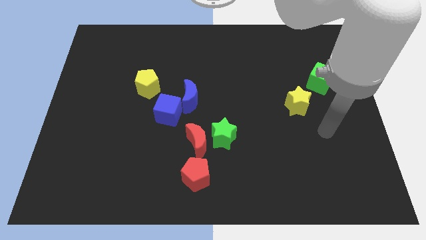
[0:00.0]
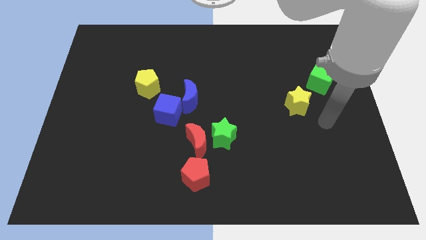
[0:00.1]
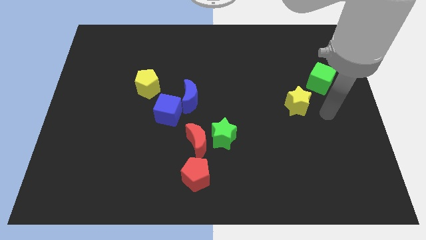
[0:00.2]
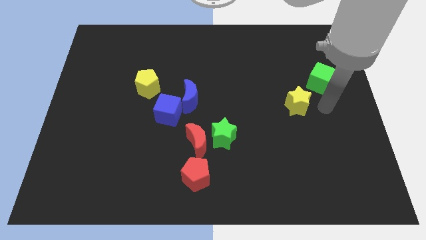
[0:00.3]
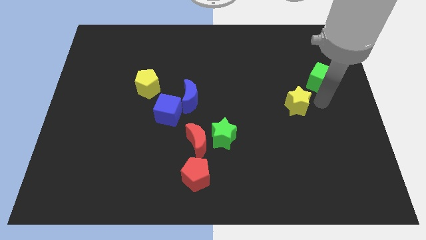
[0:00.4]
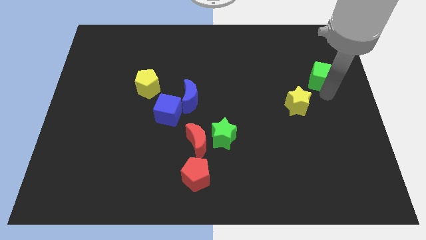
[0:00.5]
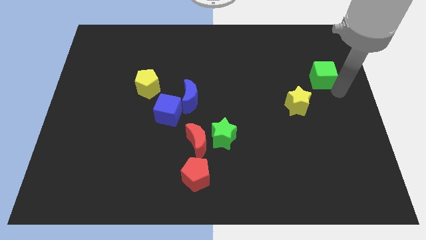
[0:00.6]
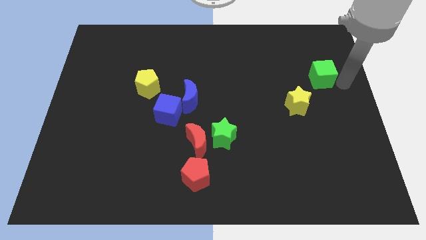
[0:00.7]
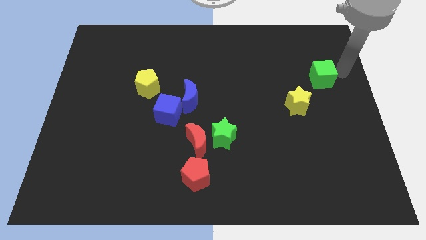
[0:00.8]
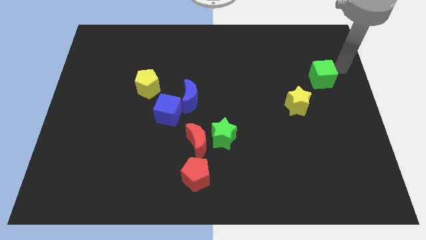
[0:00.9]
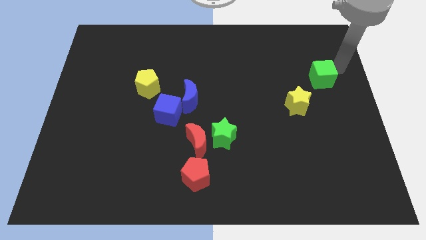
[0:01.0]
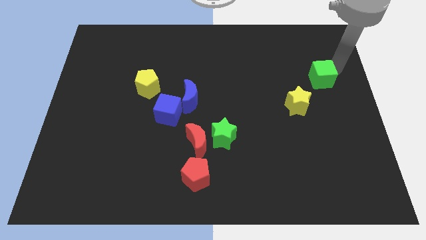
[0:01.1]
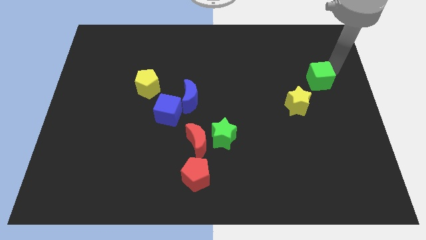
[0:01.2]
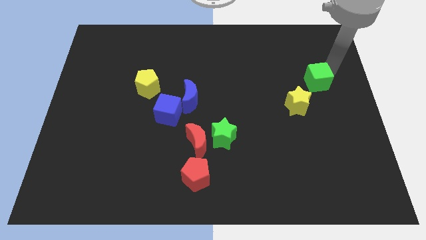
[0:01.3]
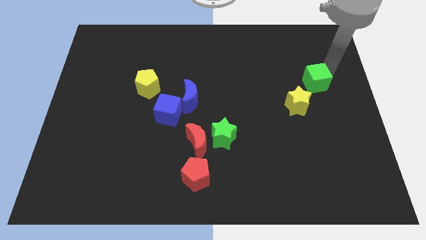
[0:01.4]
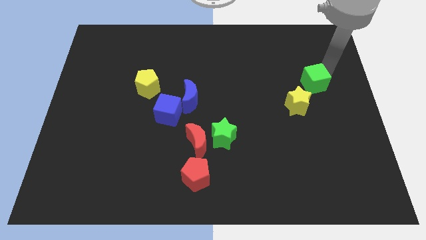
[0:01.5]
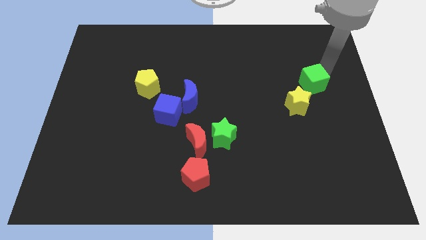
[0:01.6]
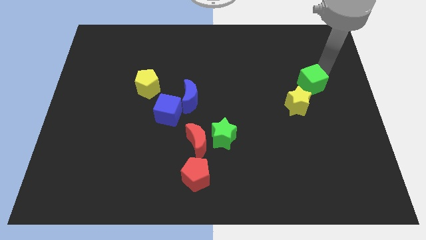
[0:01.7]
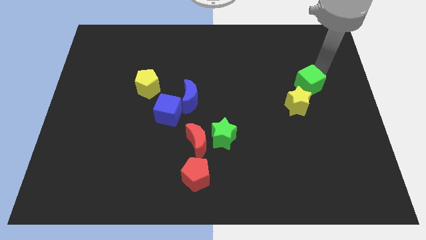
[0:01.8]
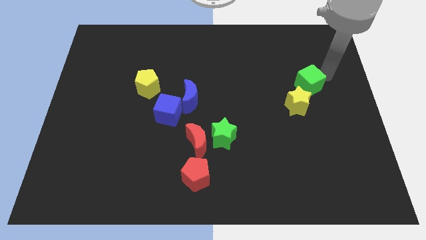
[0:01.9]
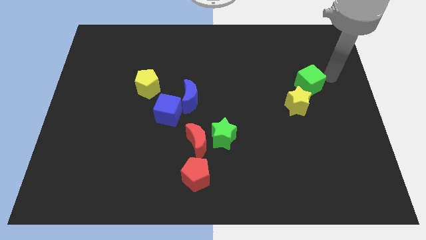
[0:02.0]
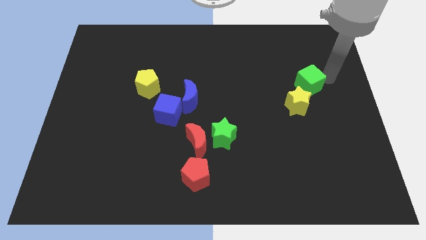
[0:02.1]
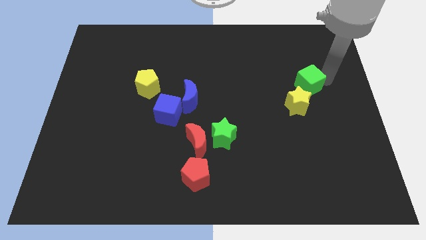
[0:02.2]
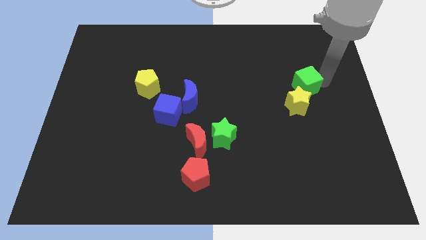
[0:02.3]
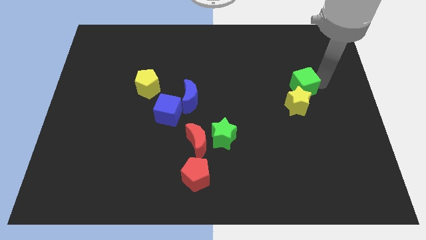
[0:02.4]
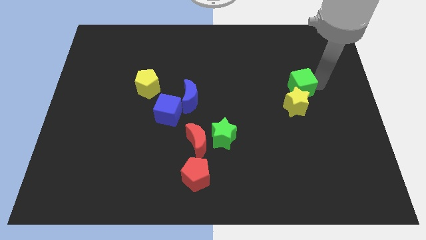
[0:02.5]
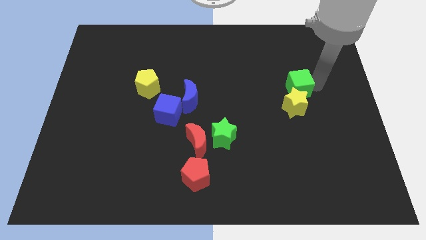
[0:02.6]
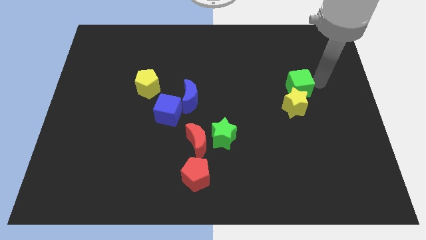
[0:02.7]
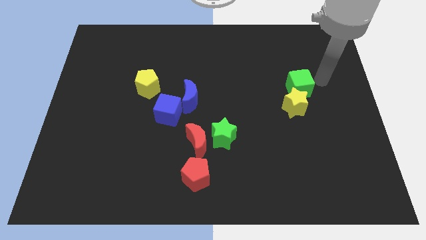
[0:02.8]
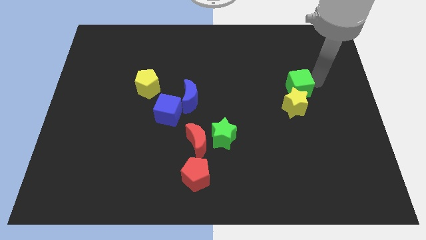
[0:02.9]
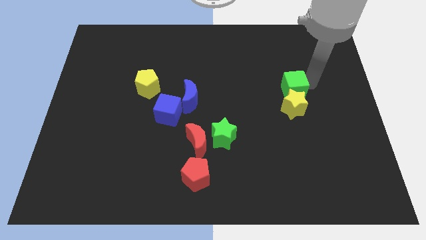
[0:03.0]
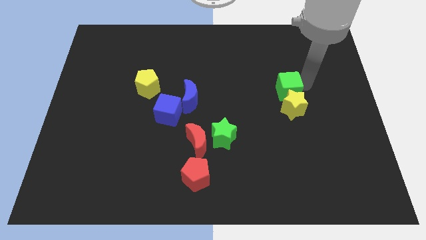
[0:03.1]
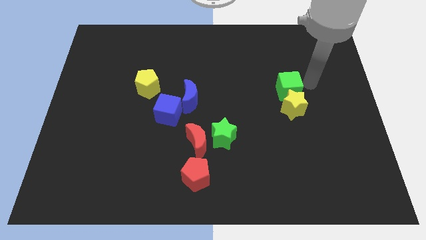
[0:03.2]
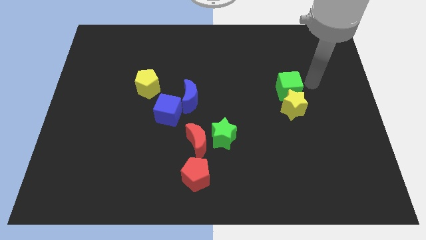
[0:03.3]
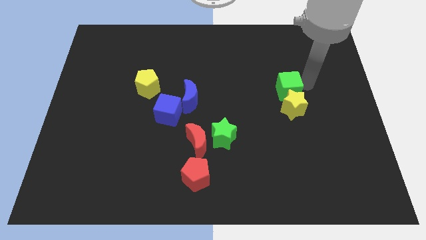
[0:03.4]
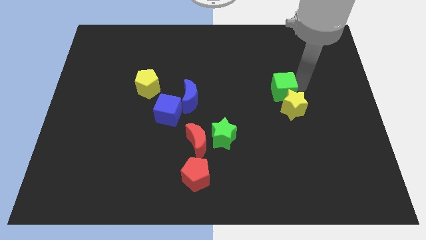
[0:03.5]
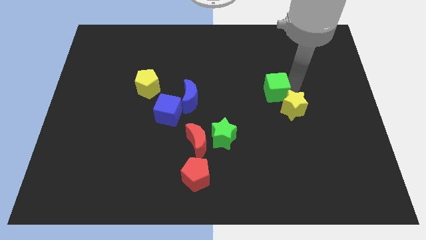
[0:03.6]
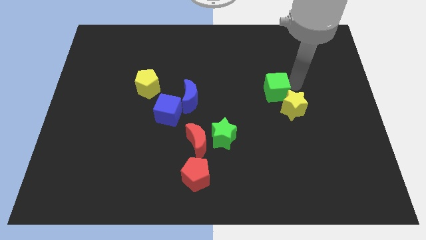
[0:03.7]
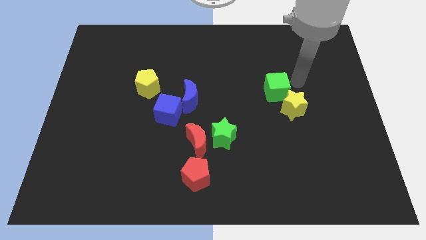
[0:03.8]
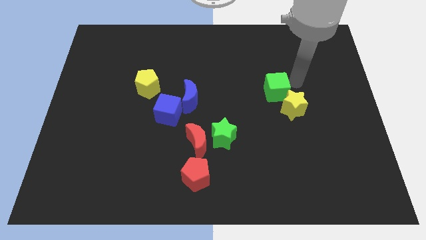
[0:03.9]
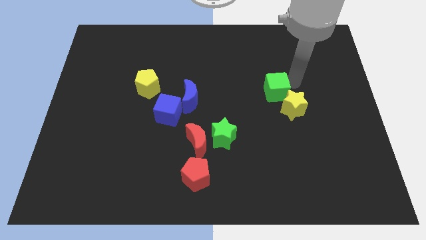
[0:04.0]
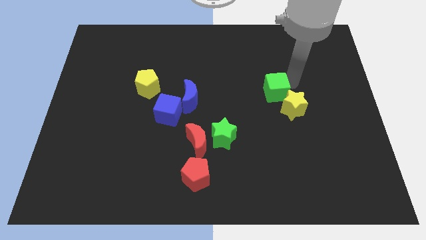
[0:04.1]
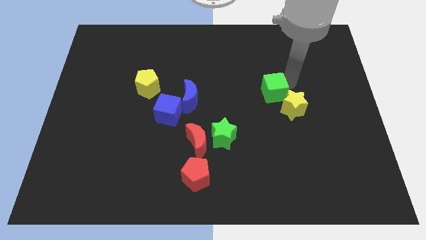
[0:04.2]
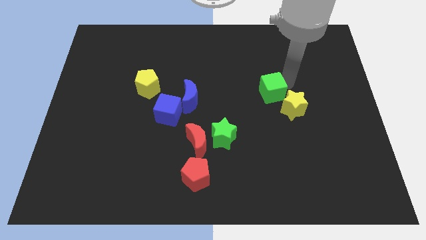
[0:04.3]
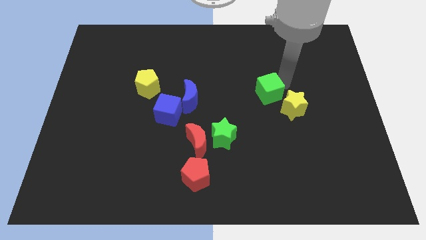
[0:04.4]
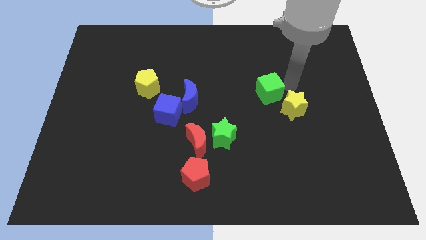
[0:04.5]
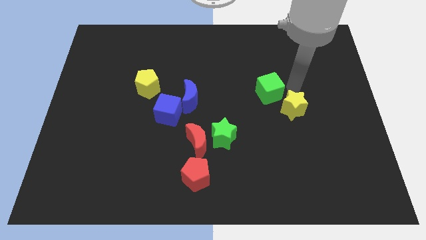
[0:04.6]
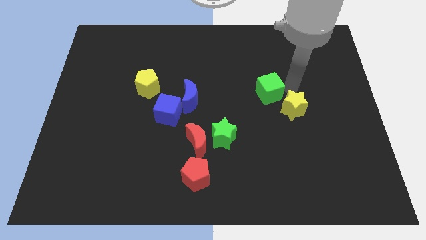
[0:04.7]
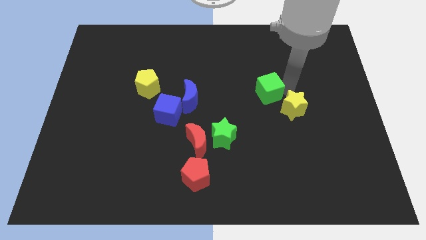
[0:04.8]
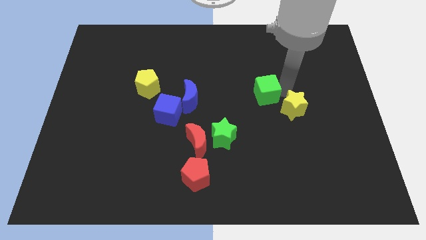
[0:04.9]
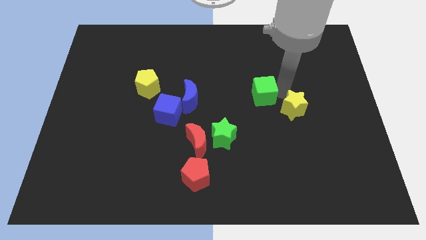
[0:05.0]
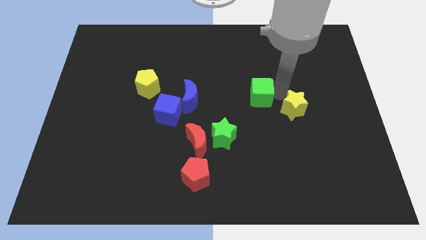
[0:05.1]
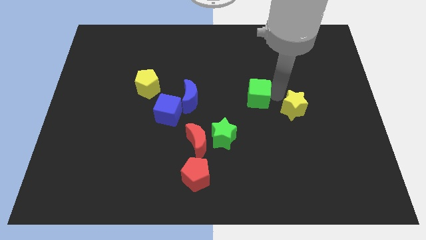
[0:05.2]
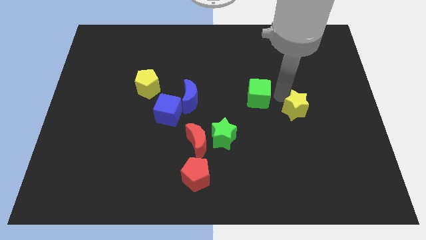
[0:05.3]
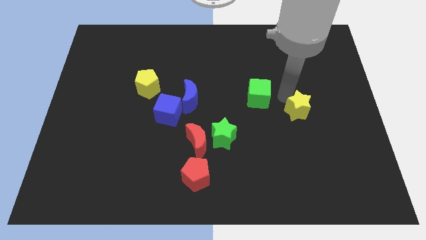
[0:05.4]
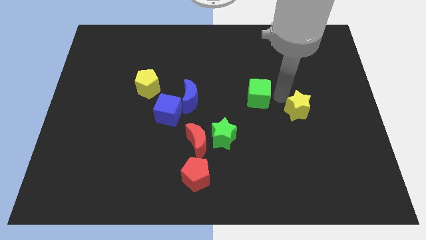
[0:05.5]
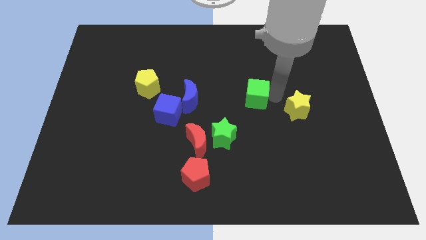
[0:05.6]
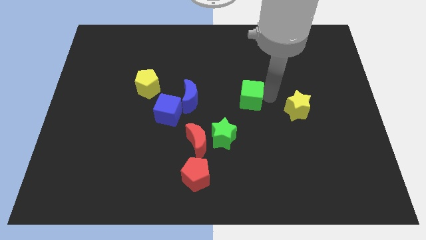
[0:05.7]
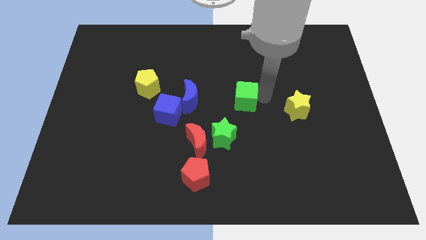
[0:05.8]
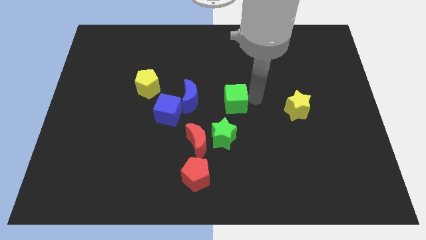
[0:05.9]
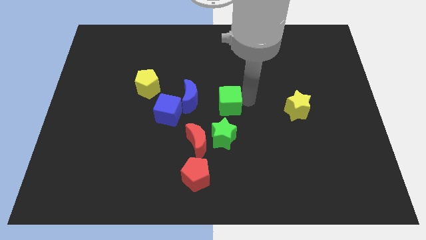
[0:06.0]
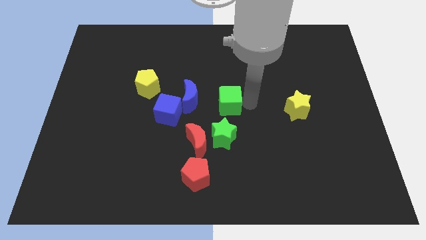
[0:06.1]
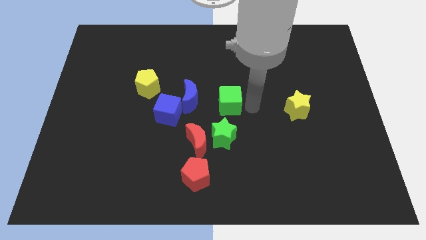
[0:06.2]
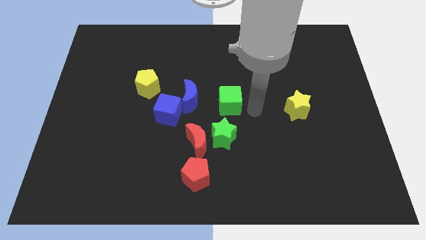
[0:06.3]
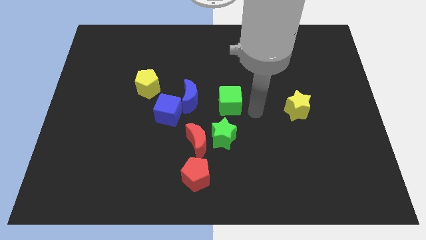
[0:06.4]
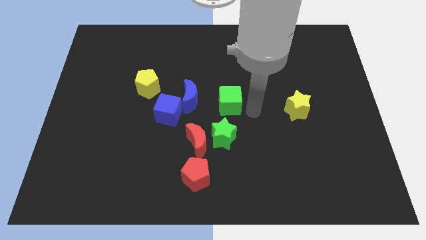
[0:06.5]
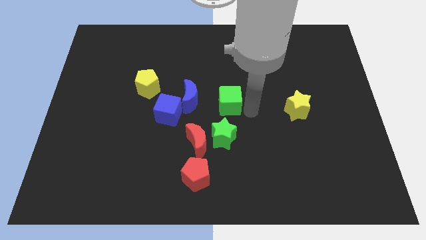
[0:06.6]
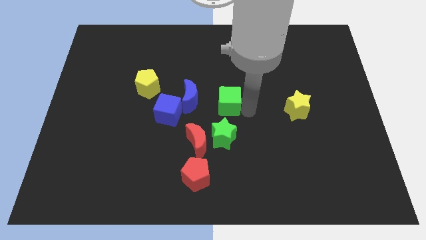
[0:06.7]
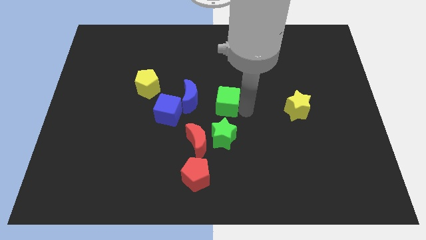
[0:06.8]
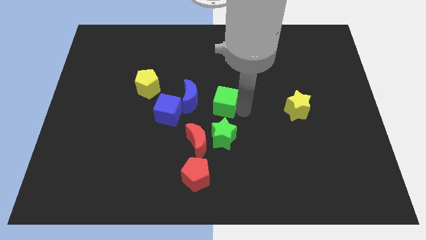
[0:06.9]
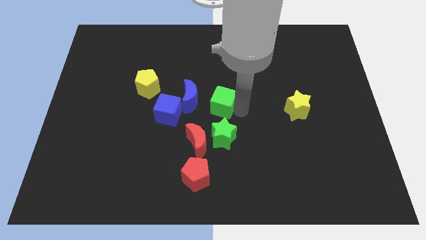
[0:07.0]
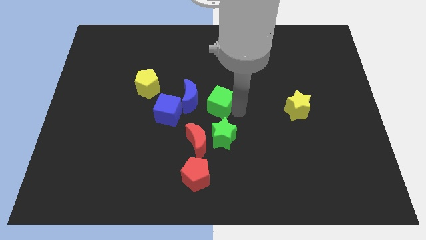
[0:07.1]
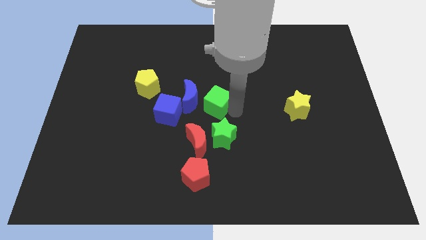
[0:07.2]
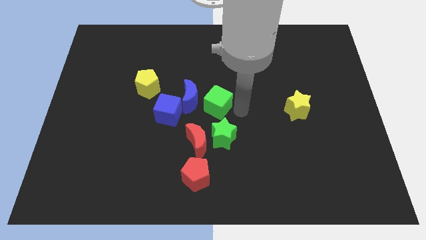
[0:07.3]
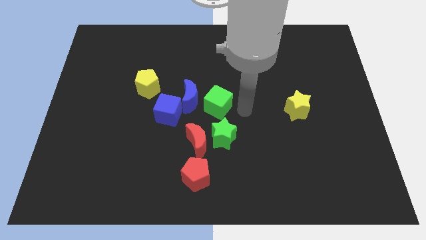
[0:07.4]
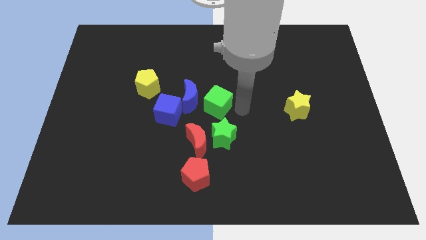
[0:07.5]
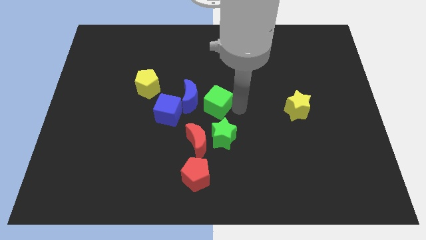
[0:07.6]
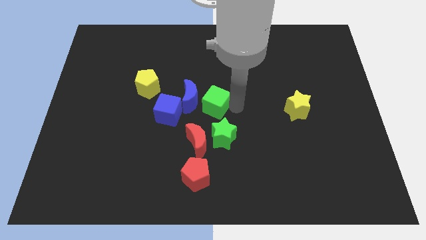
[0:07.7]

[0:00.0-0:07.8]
slide the green cube close to the blue moon
